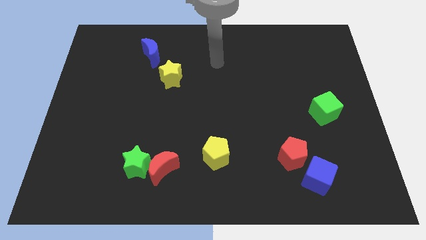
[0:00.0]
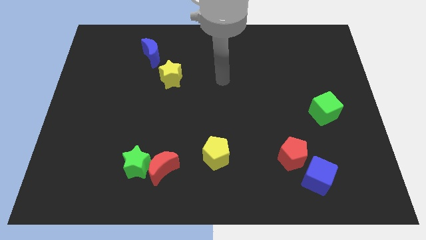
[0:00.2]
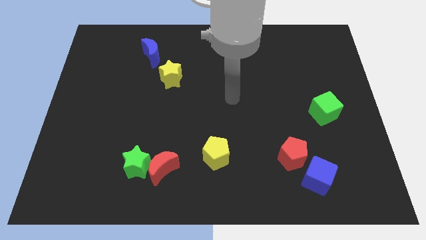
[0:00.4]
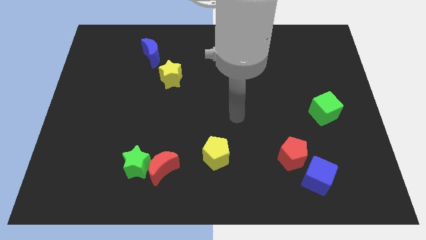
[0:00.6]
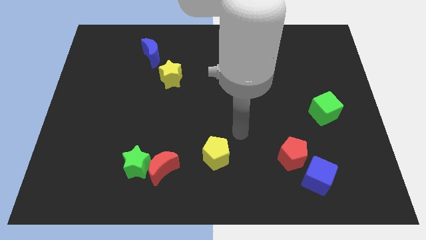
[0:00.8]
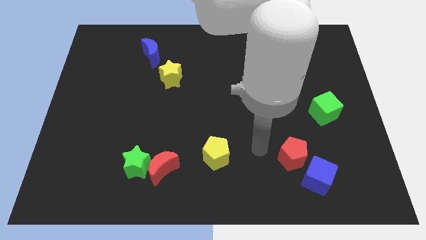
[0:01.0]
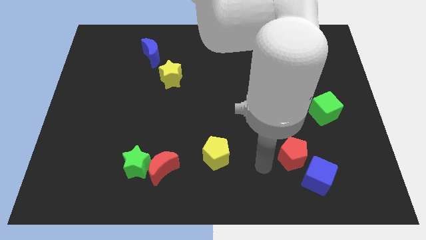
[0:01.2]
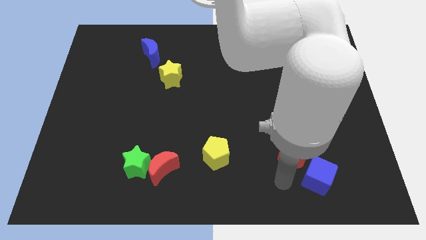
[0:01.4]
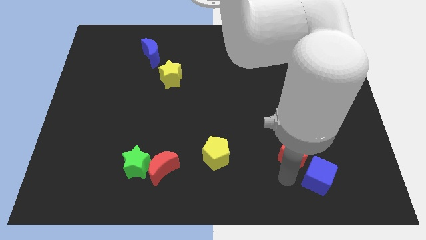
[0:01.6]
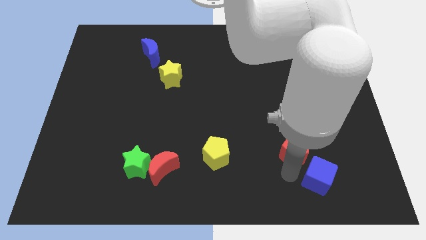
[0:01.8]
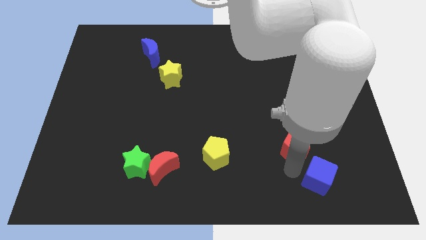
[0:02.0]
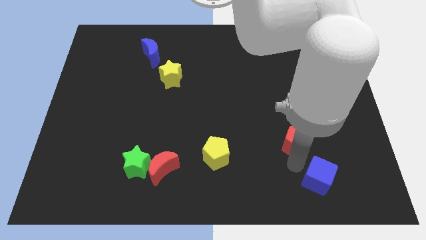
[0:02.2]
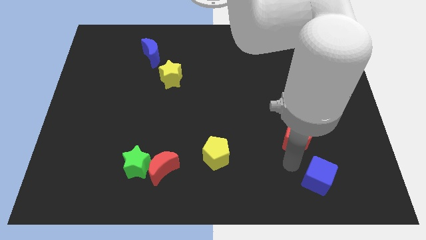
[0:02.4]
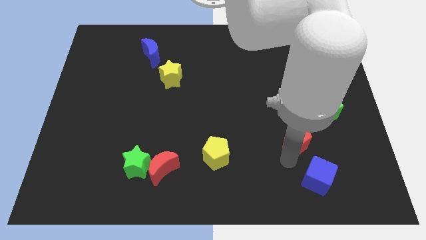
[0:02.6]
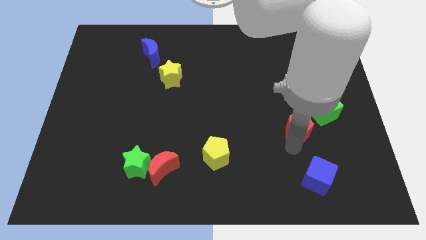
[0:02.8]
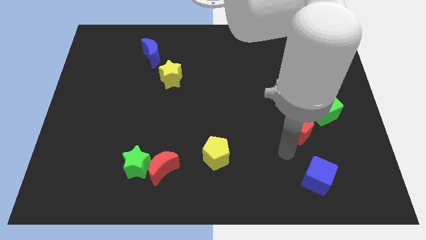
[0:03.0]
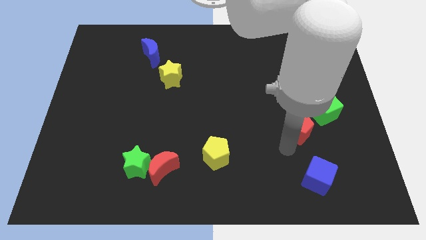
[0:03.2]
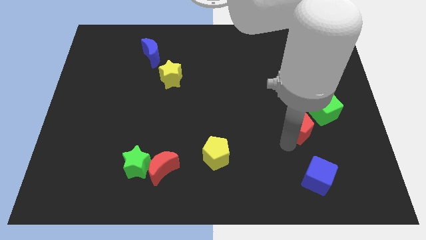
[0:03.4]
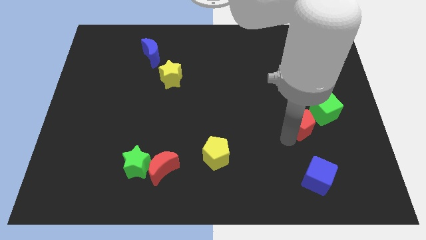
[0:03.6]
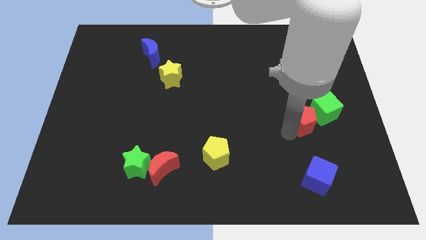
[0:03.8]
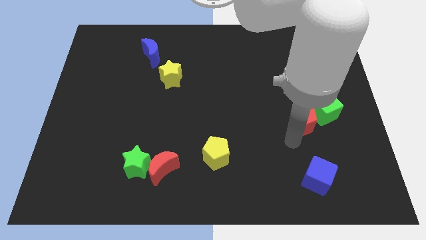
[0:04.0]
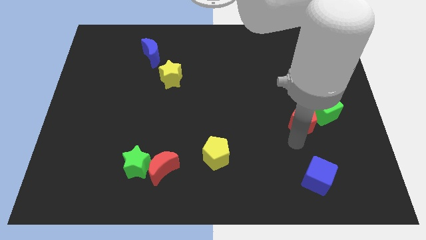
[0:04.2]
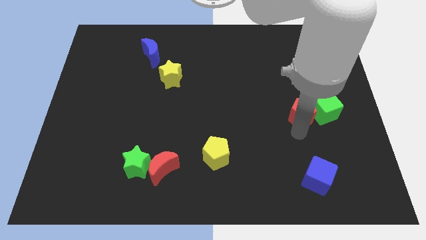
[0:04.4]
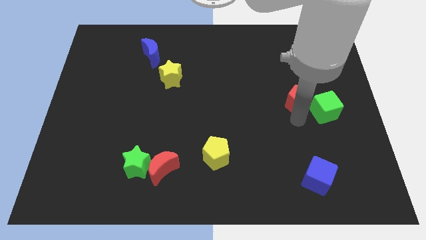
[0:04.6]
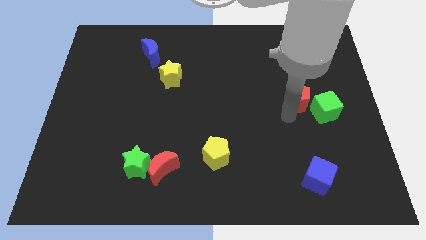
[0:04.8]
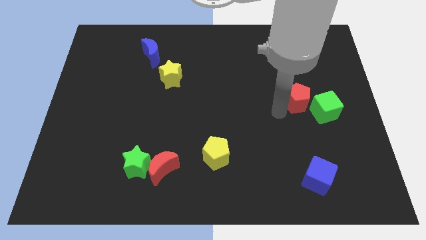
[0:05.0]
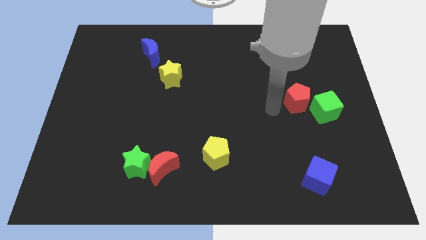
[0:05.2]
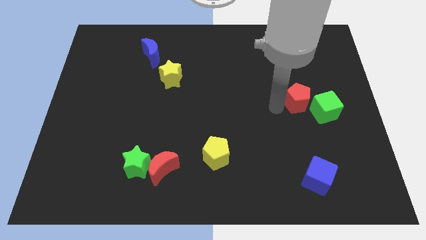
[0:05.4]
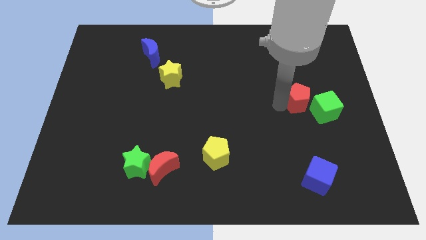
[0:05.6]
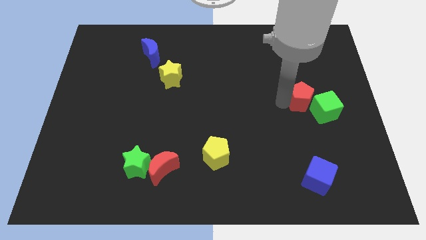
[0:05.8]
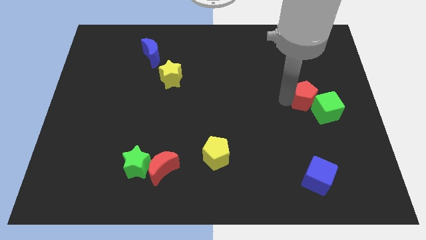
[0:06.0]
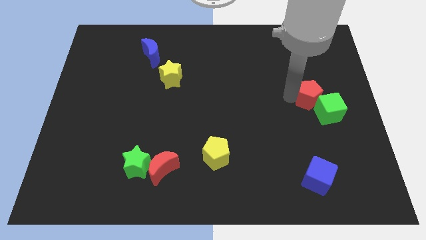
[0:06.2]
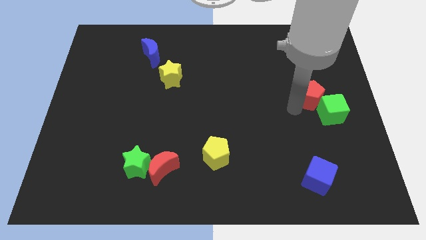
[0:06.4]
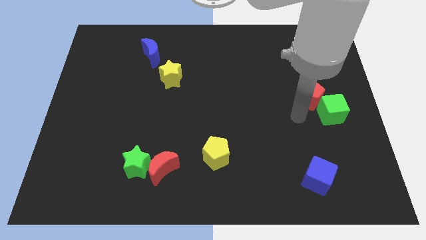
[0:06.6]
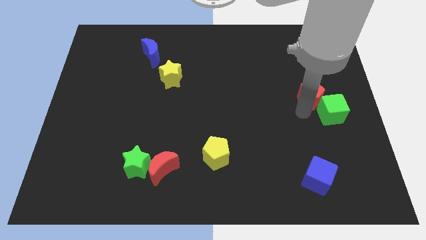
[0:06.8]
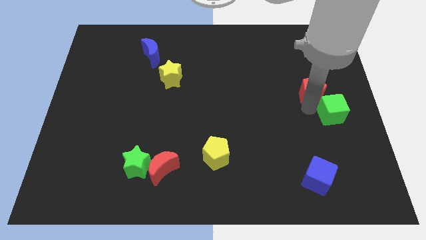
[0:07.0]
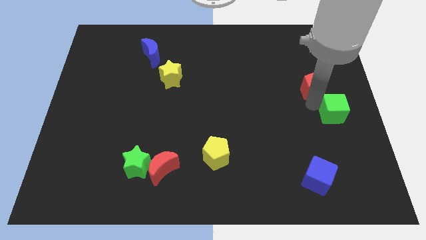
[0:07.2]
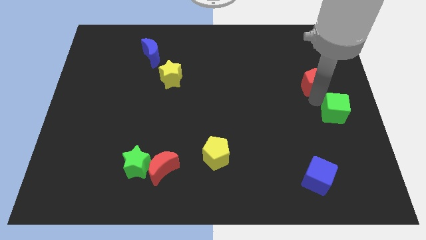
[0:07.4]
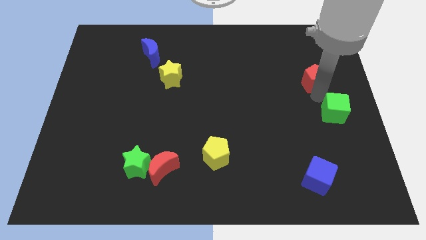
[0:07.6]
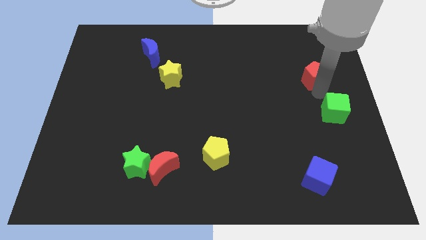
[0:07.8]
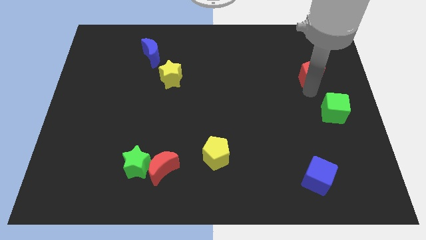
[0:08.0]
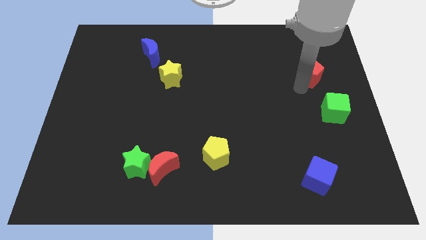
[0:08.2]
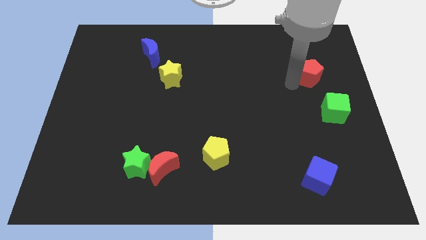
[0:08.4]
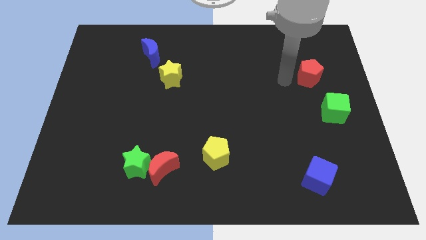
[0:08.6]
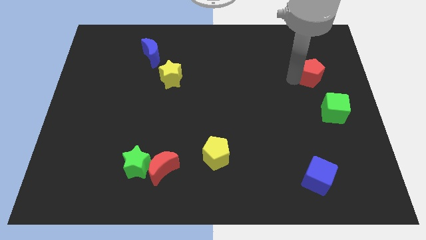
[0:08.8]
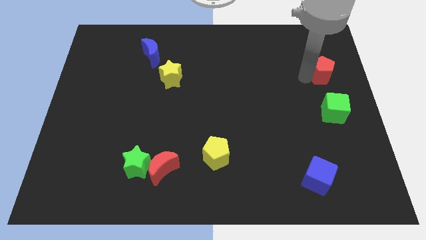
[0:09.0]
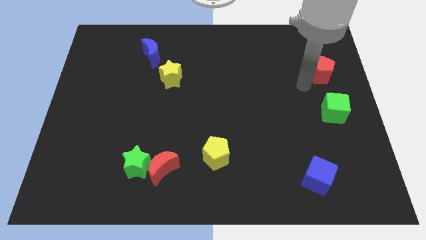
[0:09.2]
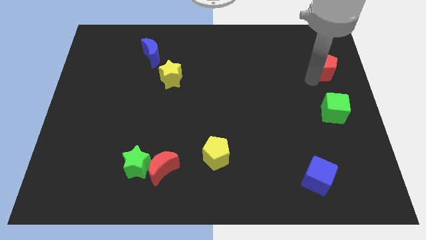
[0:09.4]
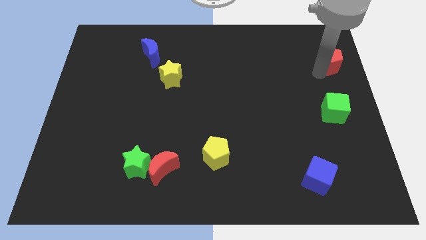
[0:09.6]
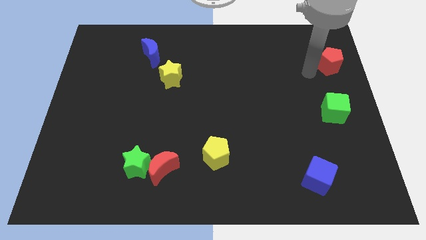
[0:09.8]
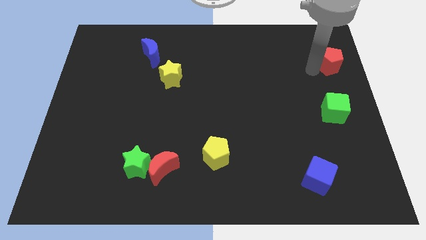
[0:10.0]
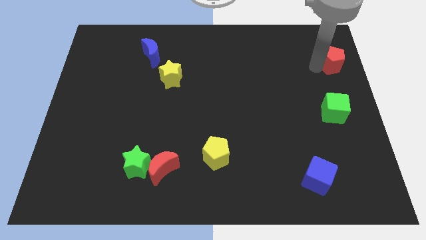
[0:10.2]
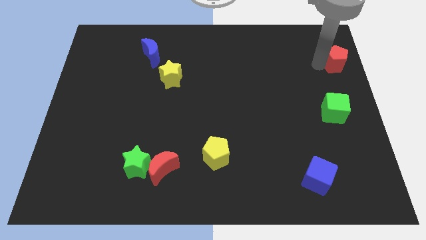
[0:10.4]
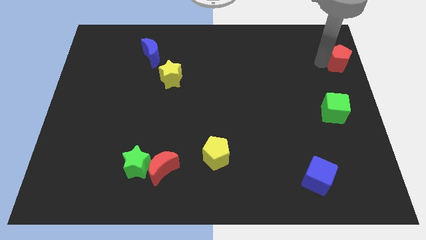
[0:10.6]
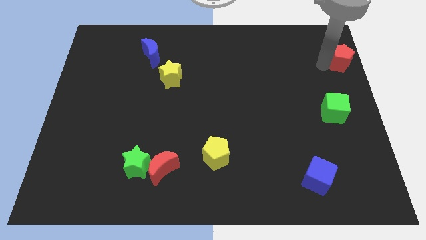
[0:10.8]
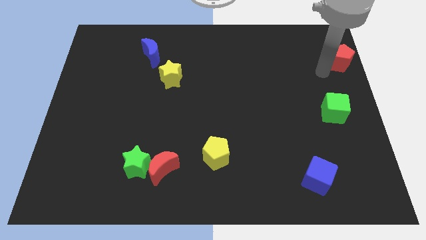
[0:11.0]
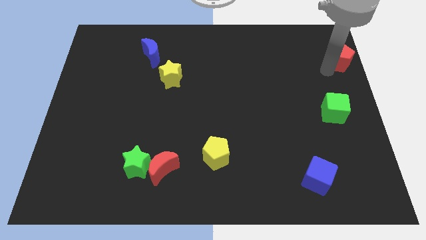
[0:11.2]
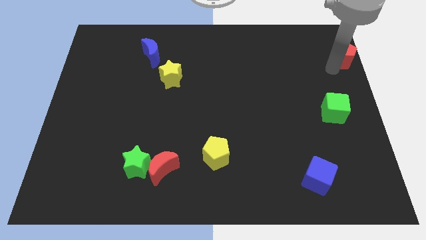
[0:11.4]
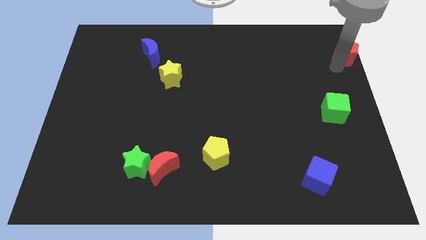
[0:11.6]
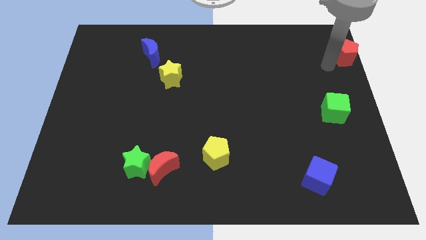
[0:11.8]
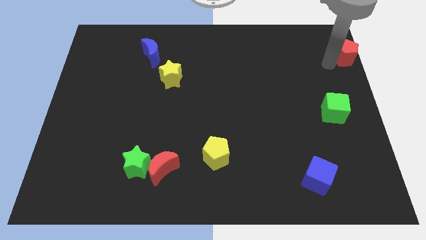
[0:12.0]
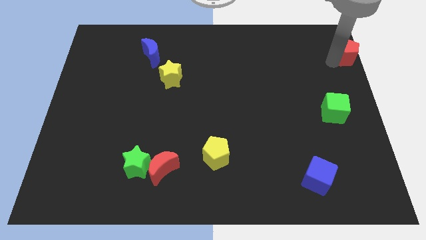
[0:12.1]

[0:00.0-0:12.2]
move the red pentagon to the upper right corner
